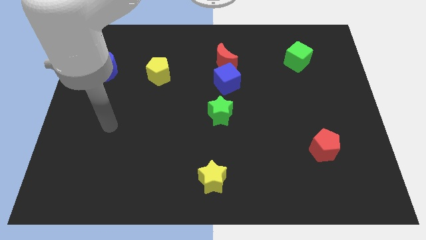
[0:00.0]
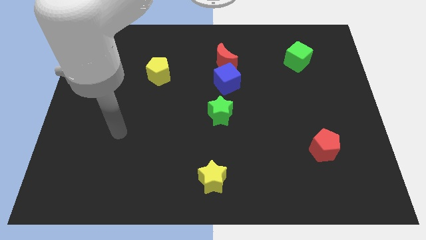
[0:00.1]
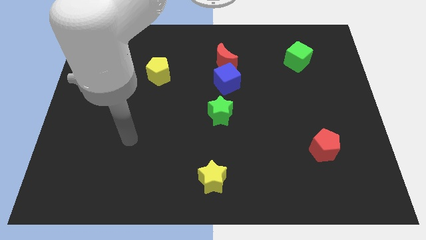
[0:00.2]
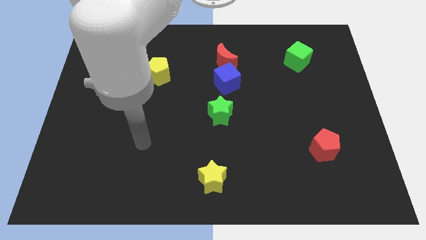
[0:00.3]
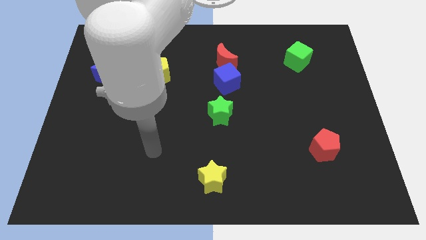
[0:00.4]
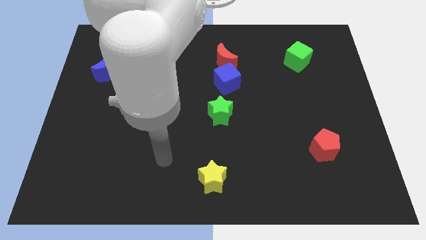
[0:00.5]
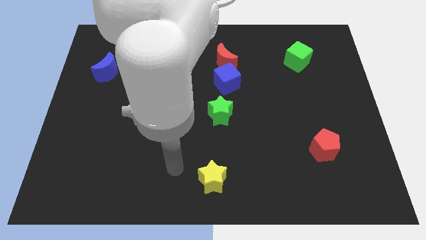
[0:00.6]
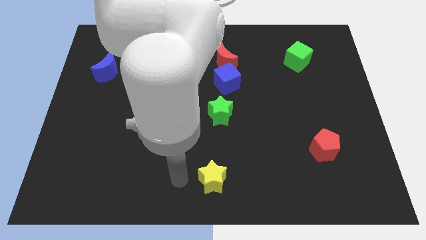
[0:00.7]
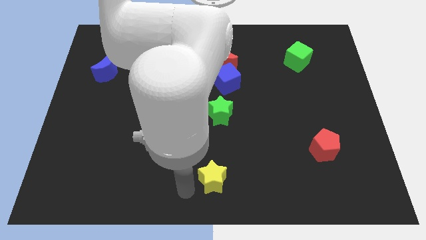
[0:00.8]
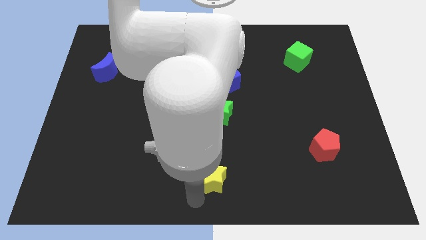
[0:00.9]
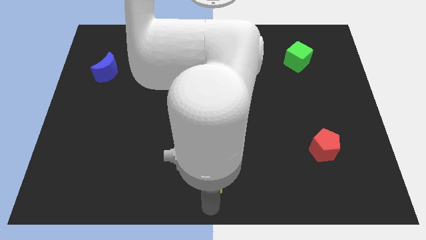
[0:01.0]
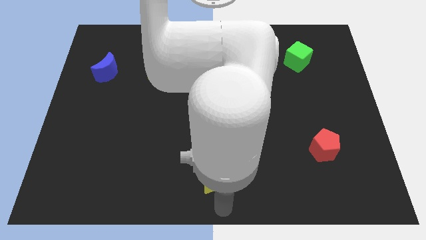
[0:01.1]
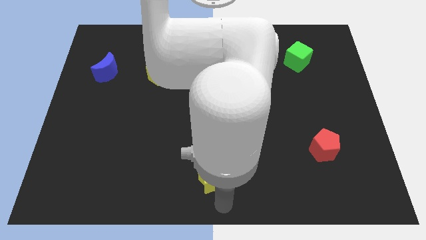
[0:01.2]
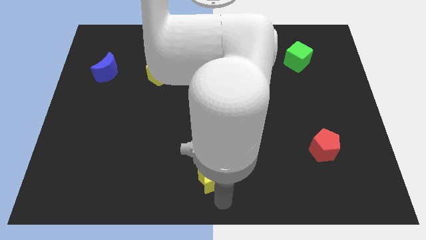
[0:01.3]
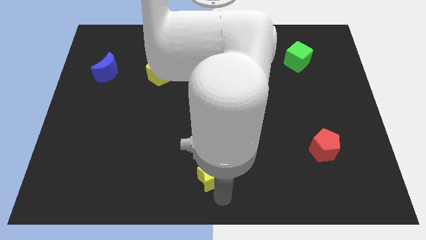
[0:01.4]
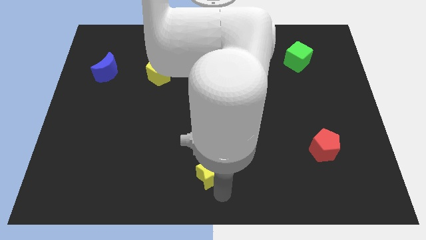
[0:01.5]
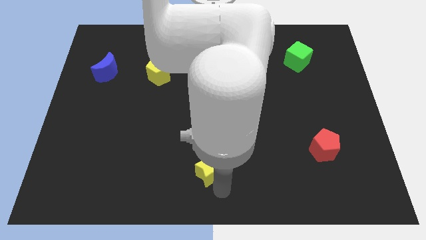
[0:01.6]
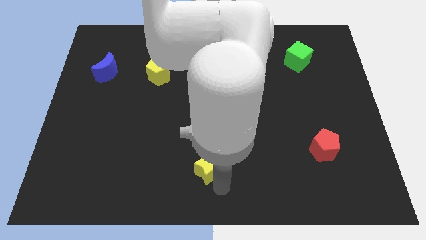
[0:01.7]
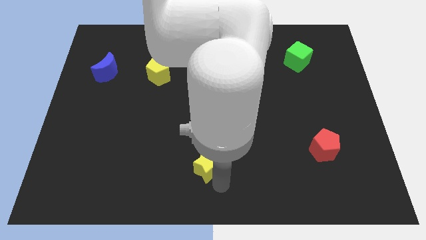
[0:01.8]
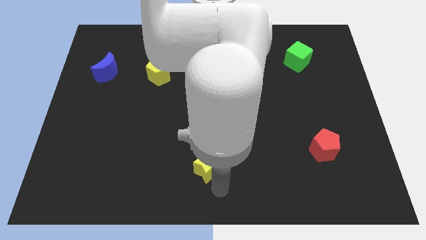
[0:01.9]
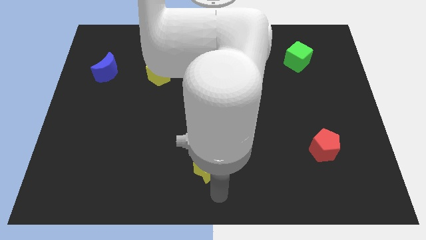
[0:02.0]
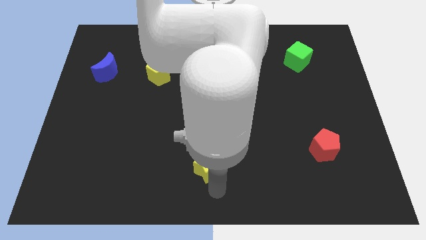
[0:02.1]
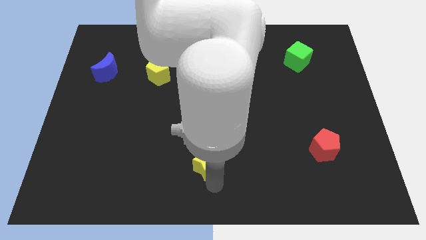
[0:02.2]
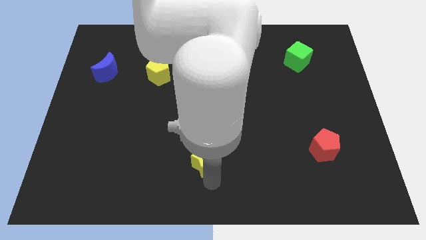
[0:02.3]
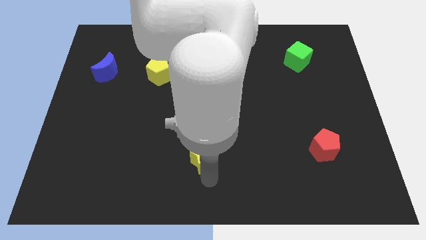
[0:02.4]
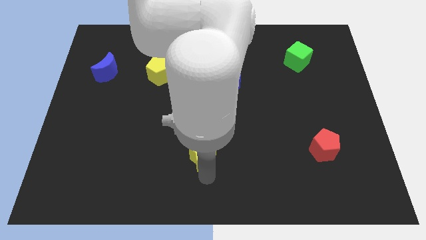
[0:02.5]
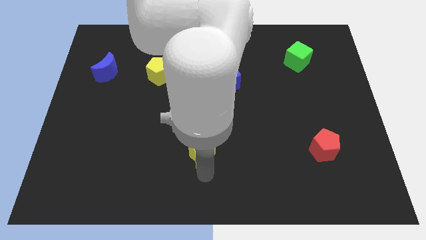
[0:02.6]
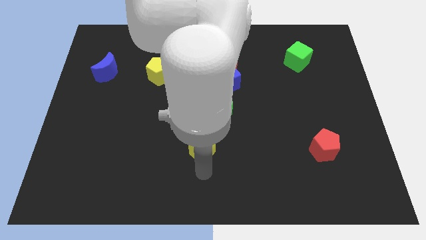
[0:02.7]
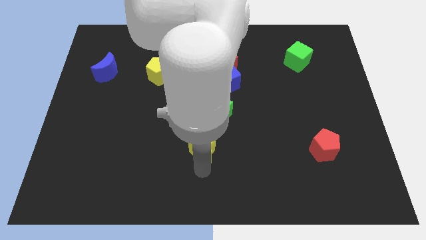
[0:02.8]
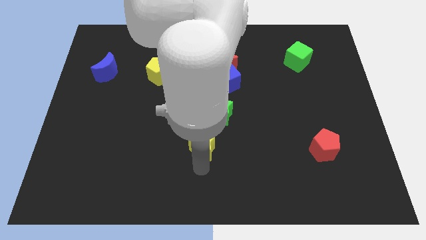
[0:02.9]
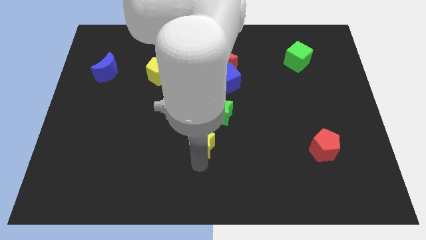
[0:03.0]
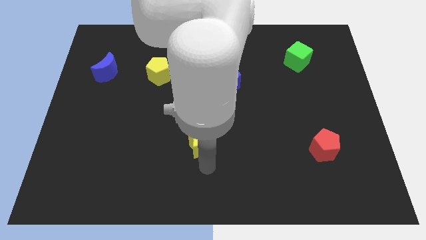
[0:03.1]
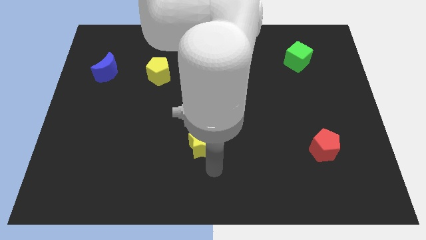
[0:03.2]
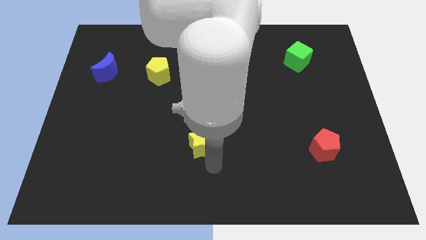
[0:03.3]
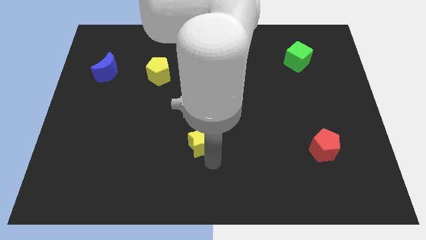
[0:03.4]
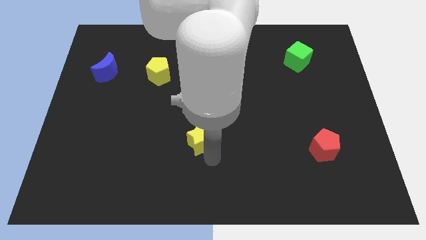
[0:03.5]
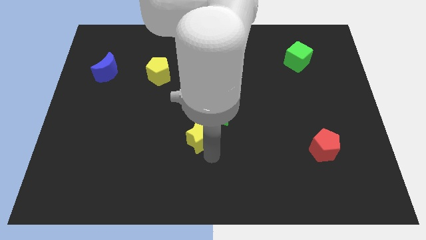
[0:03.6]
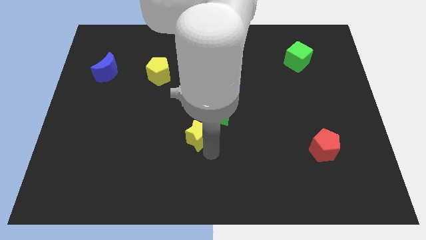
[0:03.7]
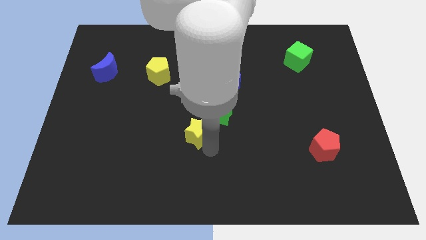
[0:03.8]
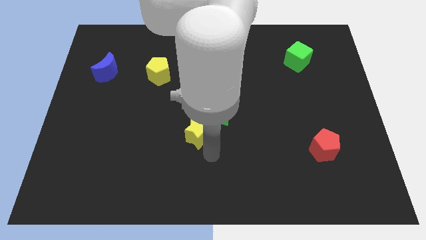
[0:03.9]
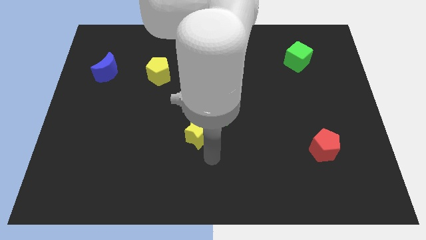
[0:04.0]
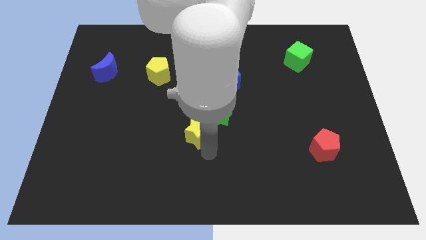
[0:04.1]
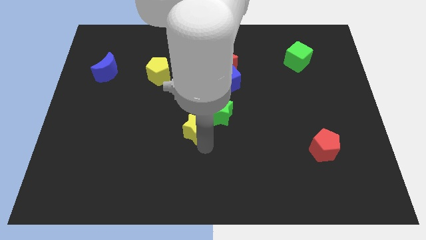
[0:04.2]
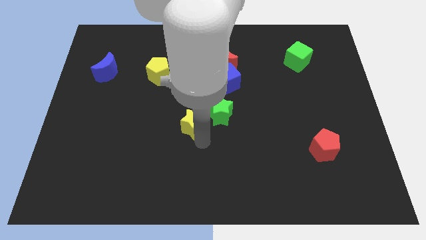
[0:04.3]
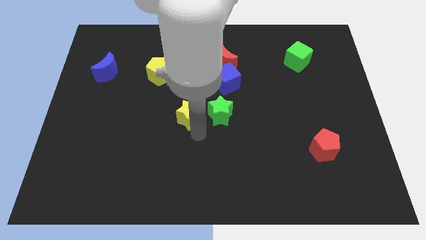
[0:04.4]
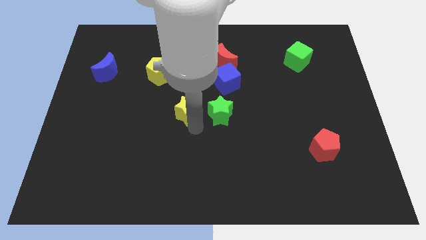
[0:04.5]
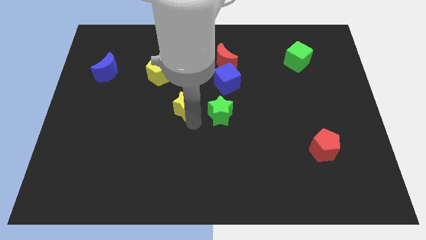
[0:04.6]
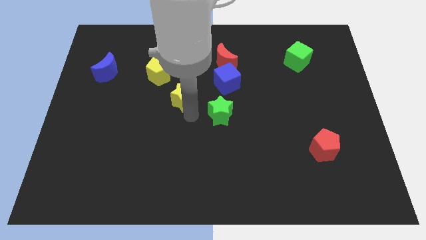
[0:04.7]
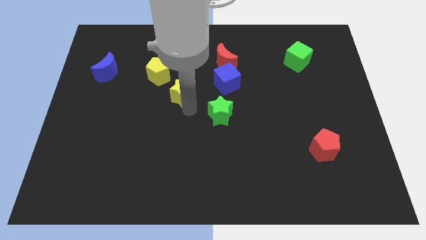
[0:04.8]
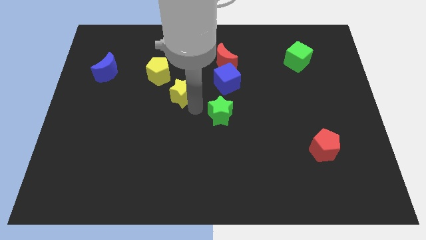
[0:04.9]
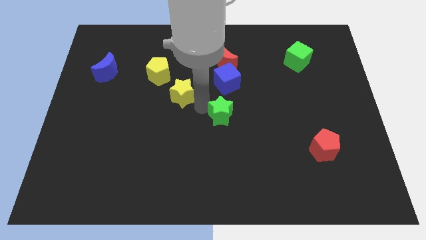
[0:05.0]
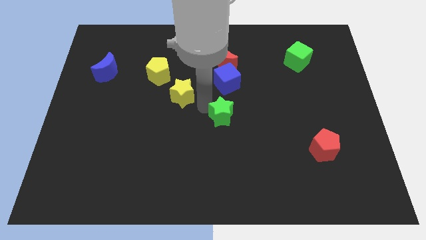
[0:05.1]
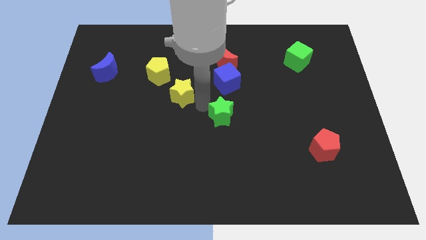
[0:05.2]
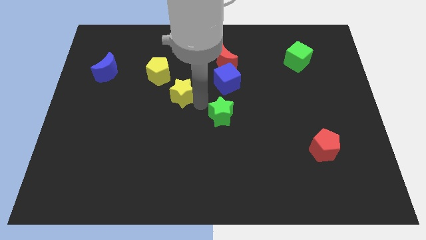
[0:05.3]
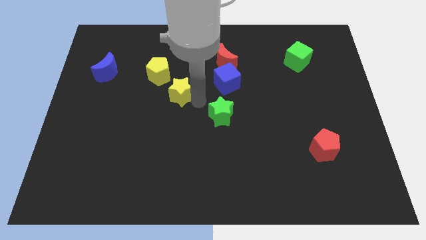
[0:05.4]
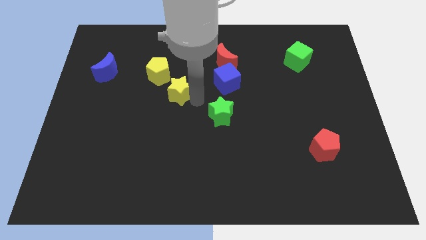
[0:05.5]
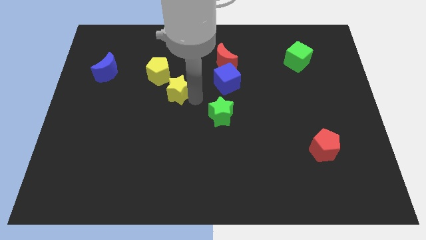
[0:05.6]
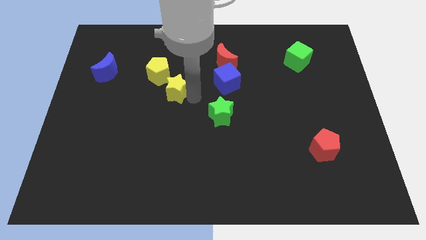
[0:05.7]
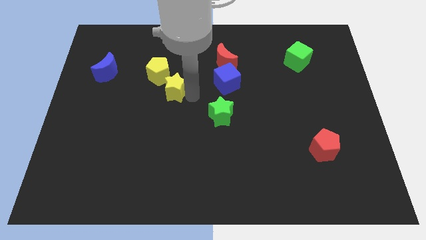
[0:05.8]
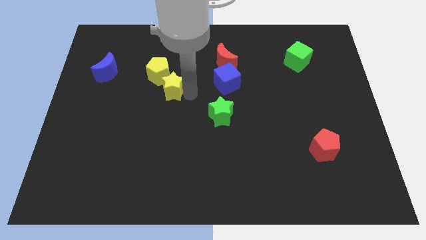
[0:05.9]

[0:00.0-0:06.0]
slide the yellow star close to the yellow pentagon

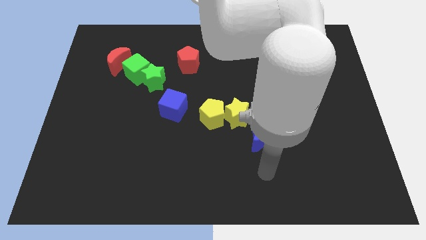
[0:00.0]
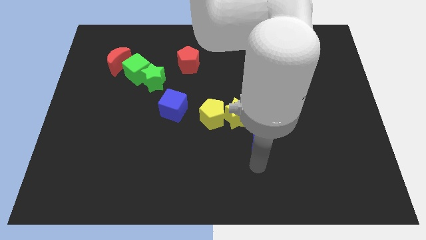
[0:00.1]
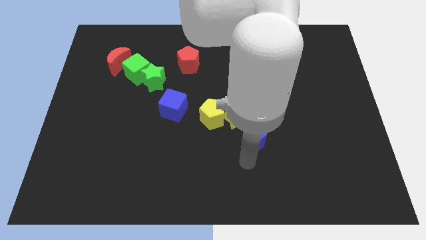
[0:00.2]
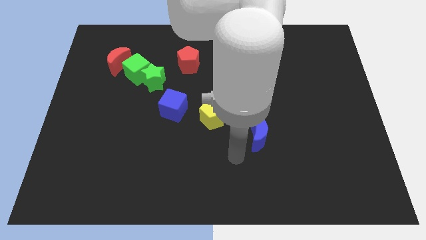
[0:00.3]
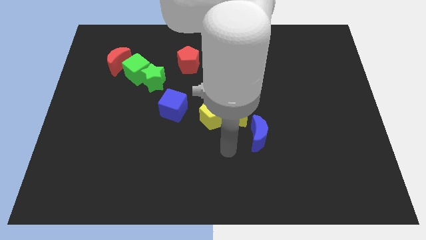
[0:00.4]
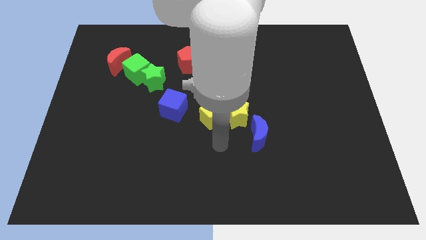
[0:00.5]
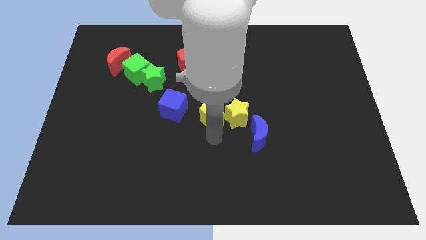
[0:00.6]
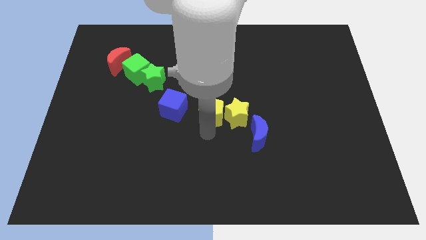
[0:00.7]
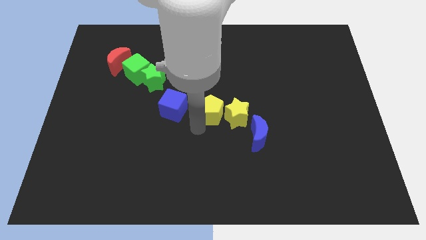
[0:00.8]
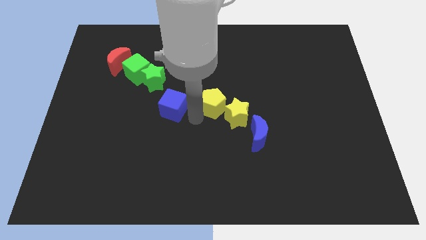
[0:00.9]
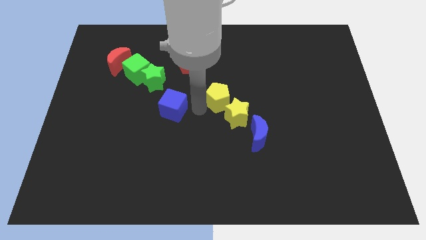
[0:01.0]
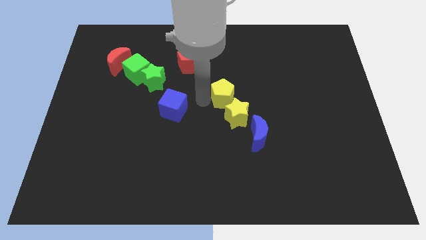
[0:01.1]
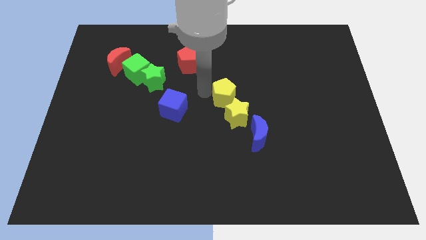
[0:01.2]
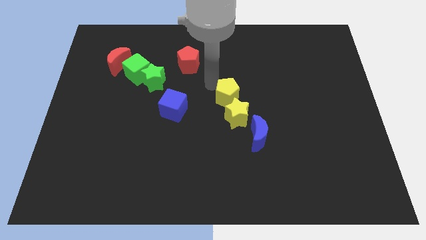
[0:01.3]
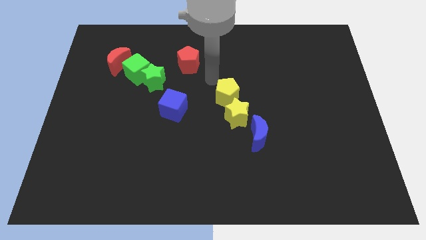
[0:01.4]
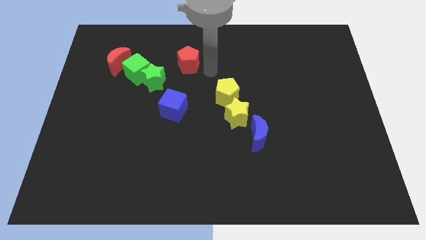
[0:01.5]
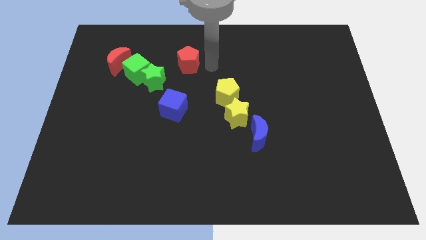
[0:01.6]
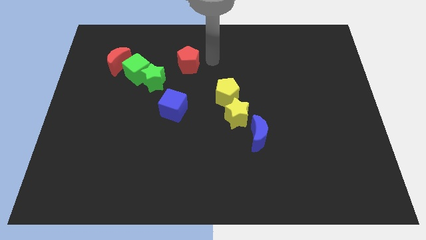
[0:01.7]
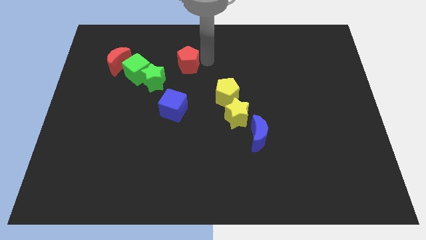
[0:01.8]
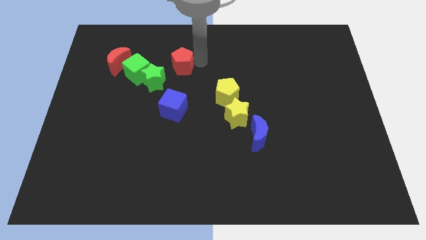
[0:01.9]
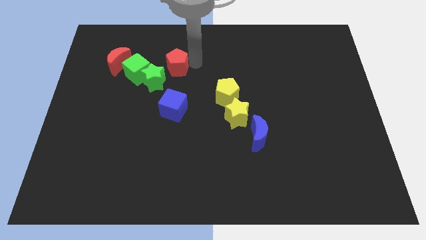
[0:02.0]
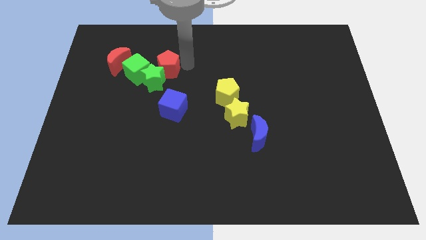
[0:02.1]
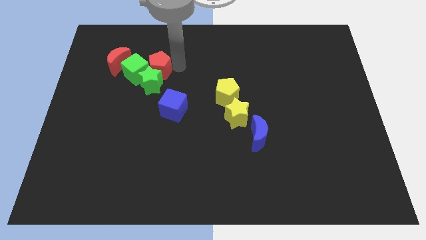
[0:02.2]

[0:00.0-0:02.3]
move the red pentagon close to the green cube
